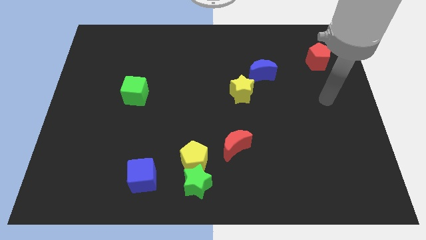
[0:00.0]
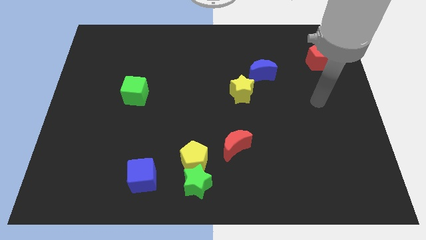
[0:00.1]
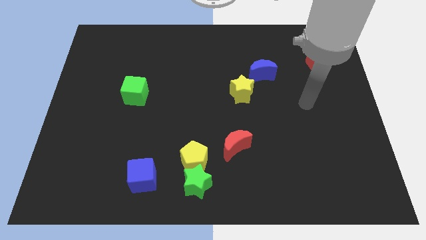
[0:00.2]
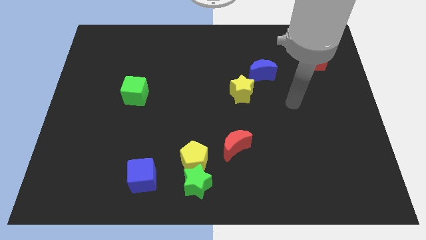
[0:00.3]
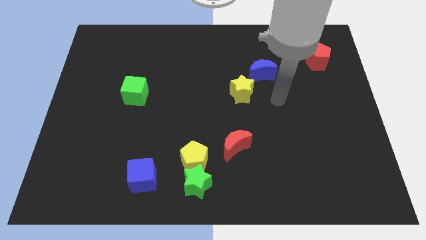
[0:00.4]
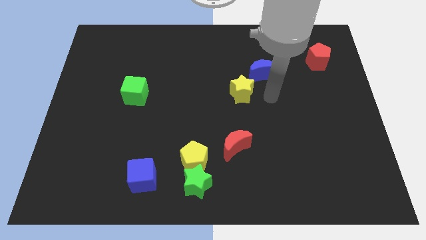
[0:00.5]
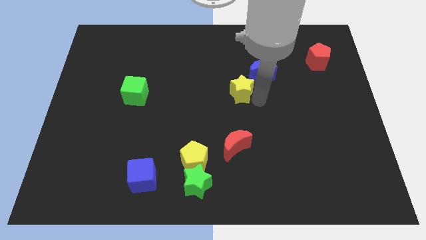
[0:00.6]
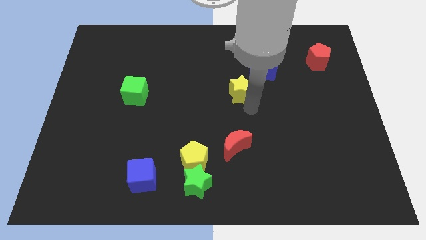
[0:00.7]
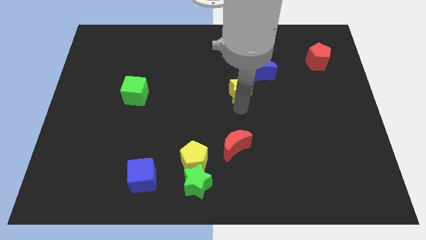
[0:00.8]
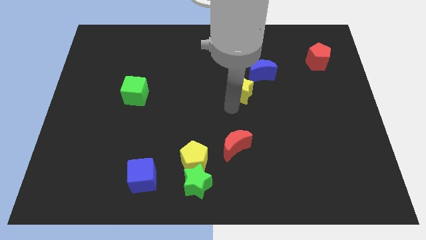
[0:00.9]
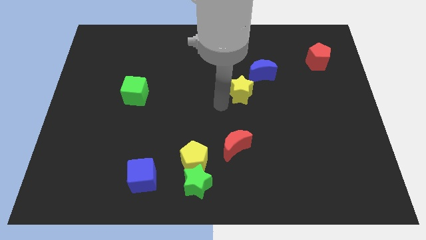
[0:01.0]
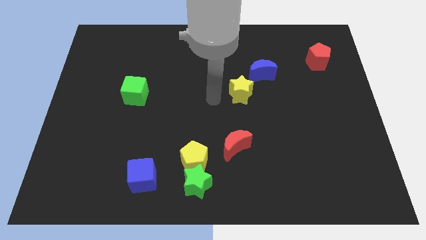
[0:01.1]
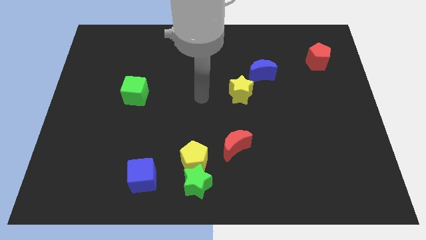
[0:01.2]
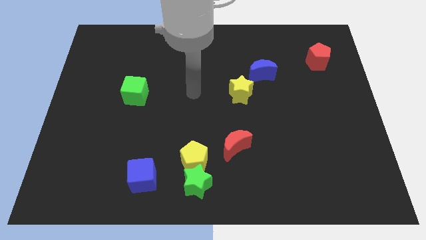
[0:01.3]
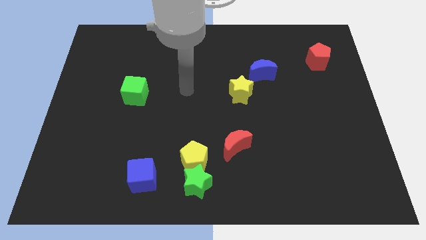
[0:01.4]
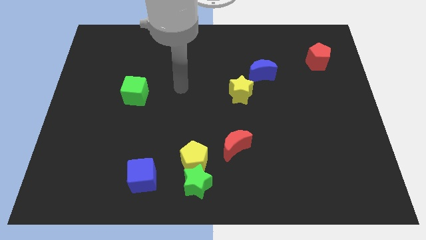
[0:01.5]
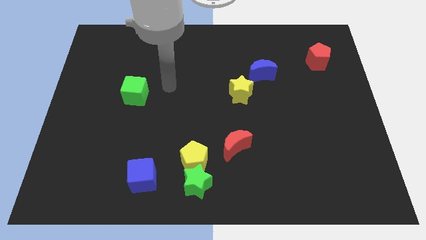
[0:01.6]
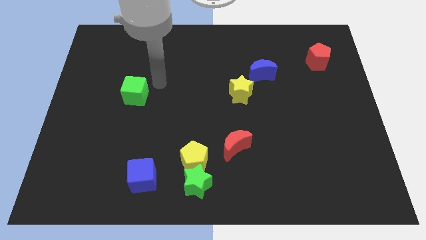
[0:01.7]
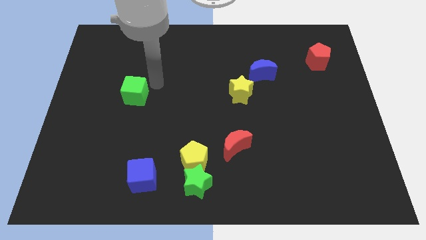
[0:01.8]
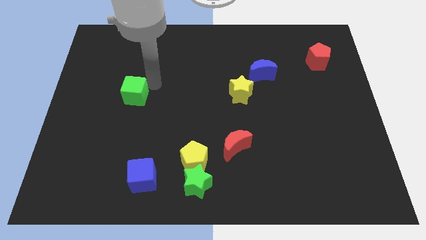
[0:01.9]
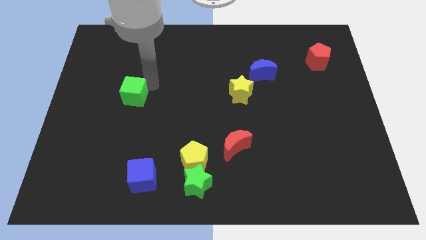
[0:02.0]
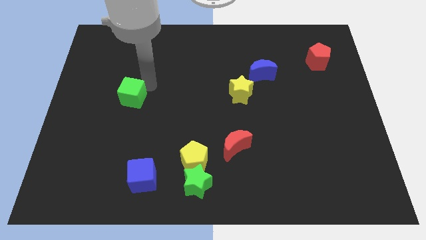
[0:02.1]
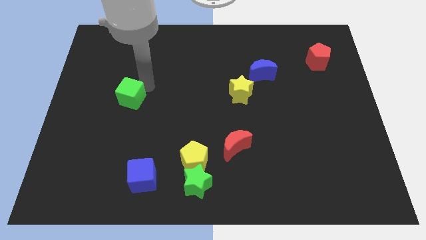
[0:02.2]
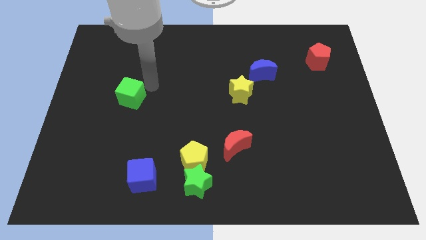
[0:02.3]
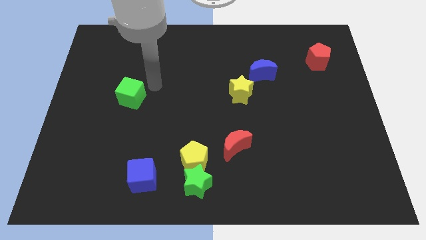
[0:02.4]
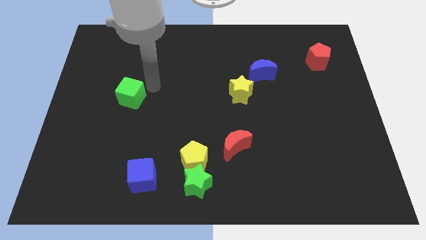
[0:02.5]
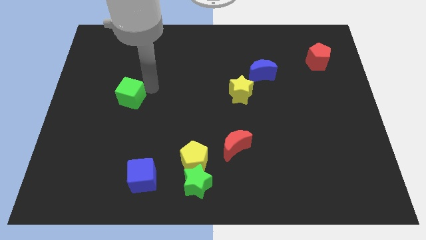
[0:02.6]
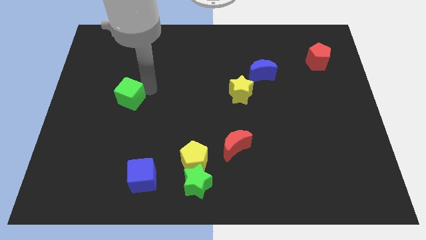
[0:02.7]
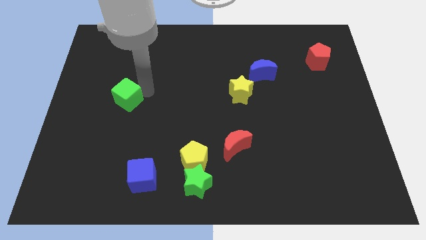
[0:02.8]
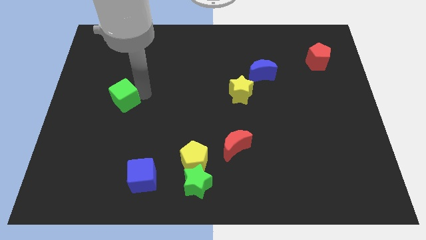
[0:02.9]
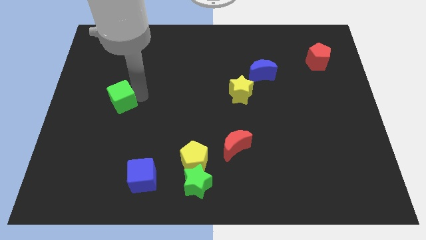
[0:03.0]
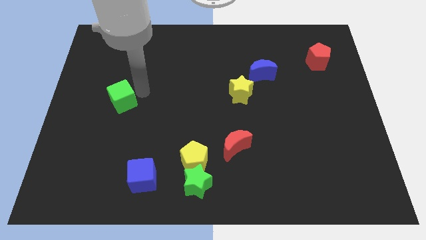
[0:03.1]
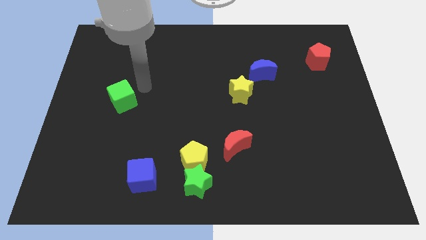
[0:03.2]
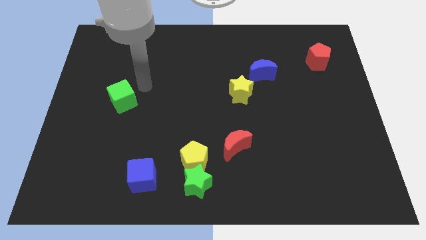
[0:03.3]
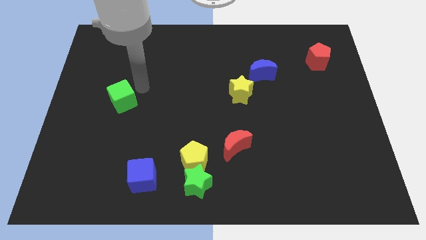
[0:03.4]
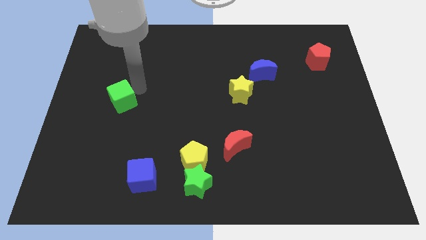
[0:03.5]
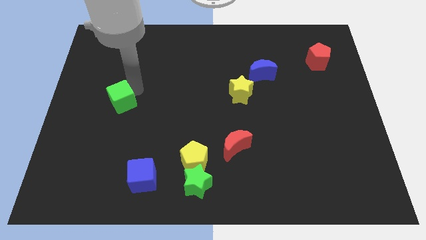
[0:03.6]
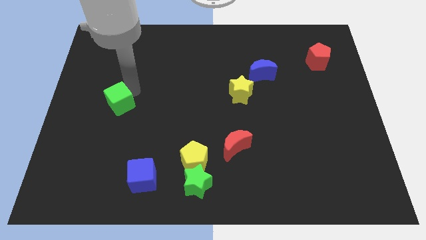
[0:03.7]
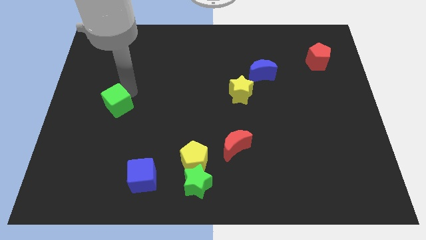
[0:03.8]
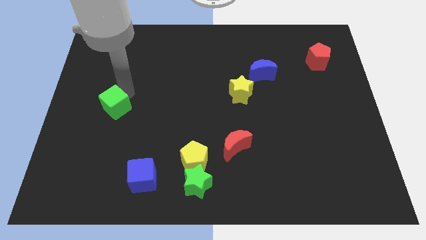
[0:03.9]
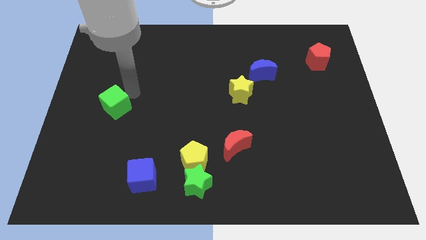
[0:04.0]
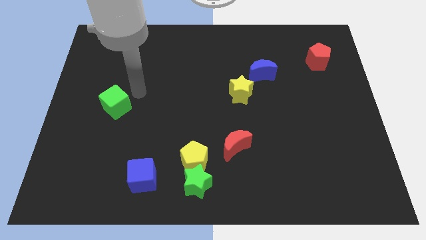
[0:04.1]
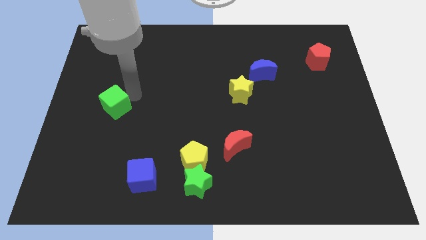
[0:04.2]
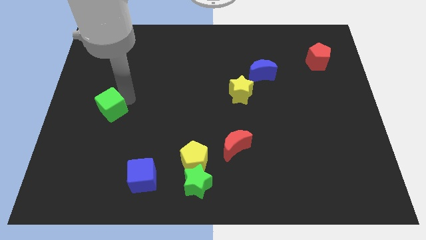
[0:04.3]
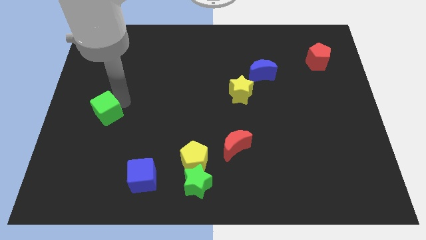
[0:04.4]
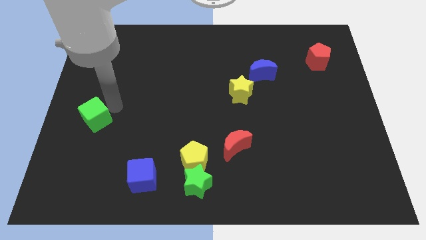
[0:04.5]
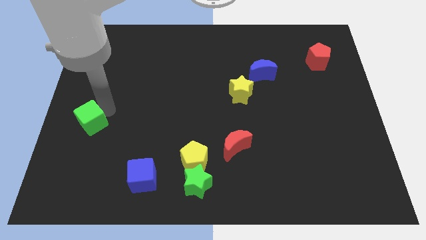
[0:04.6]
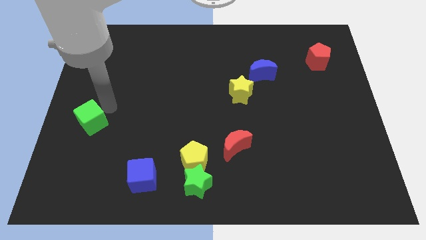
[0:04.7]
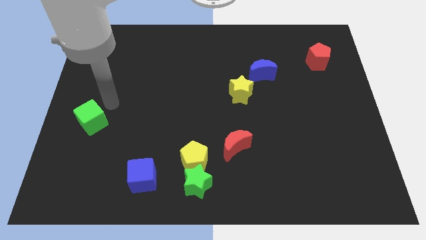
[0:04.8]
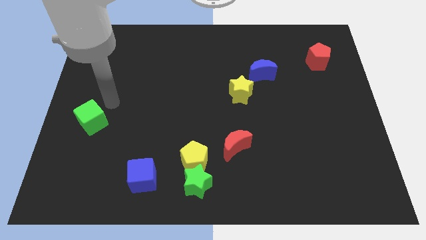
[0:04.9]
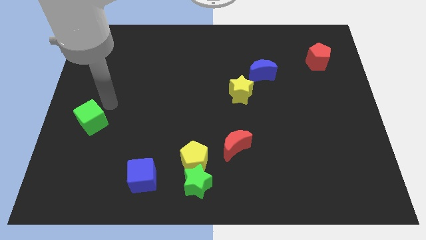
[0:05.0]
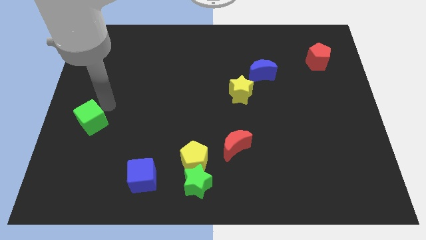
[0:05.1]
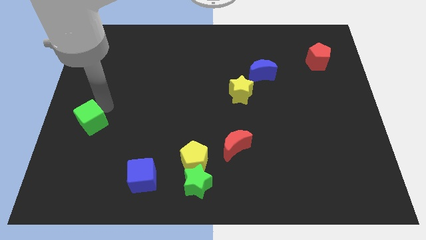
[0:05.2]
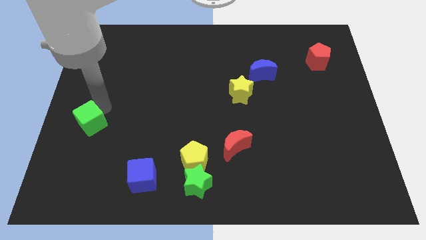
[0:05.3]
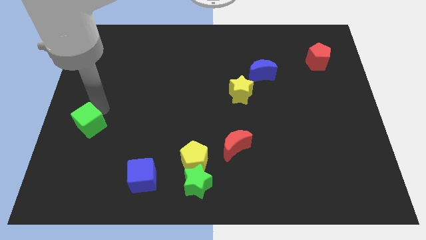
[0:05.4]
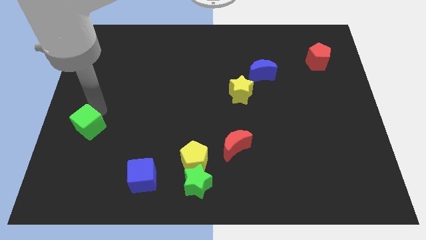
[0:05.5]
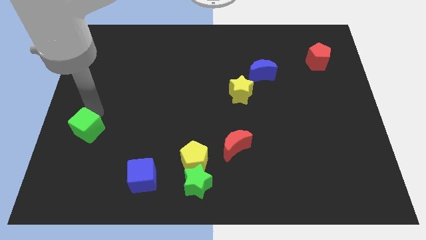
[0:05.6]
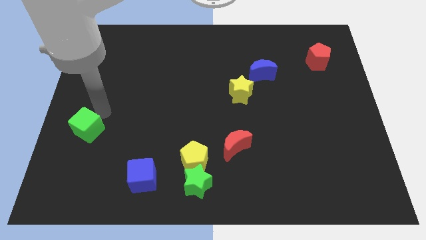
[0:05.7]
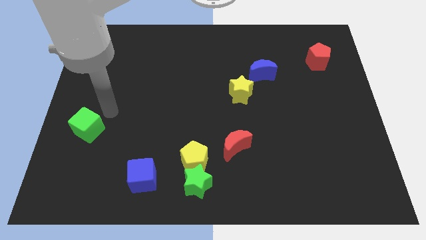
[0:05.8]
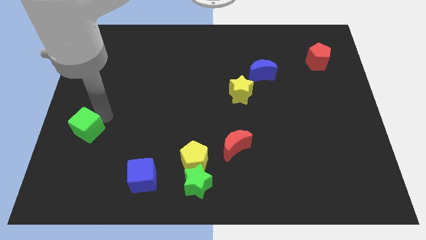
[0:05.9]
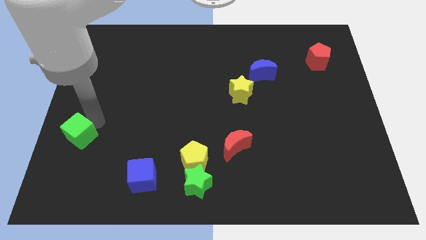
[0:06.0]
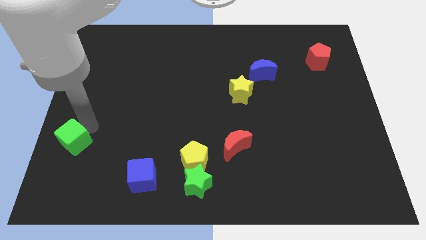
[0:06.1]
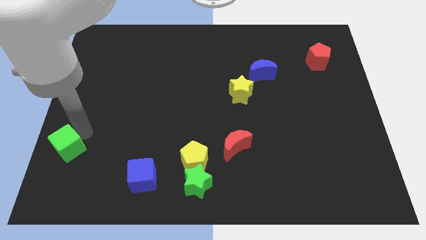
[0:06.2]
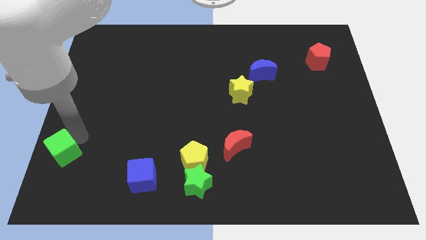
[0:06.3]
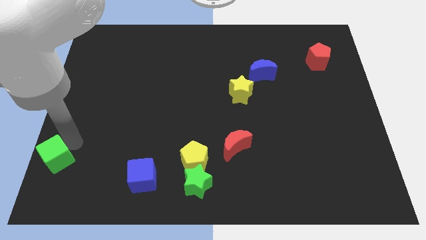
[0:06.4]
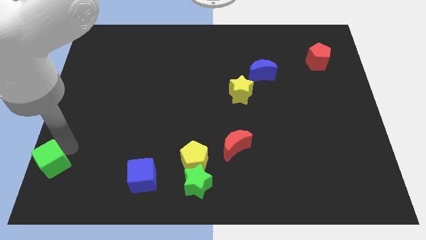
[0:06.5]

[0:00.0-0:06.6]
put the green cube to the lower left corner
